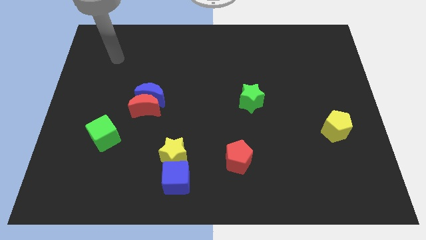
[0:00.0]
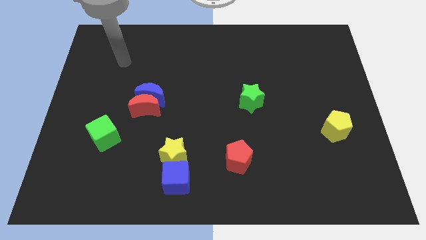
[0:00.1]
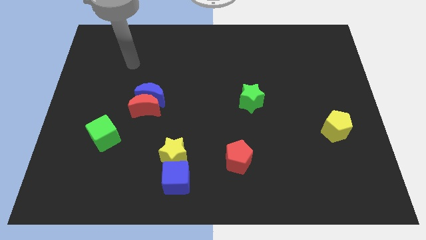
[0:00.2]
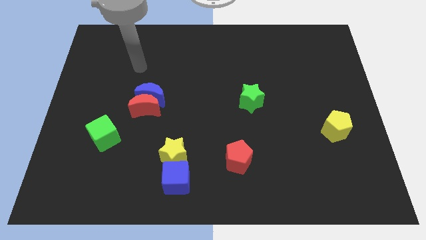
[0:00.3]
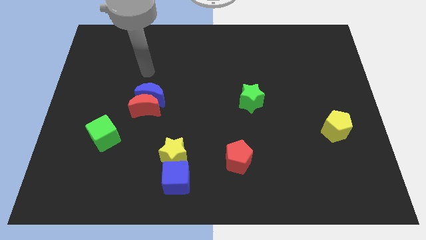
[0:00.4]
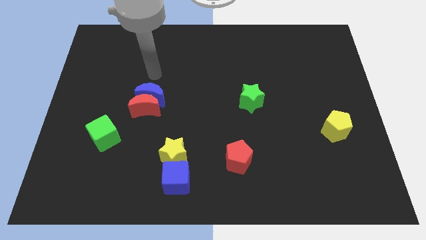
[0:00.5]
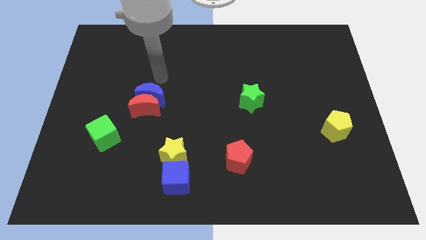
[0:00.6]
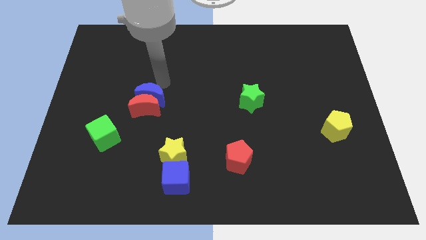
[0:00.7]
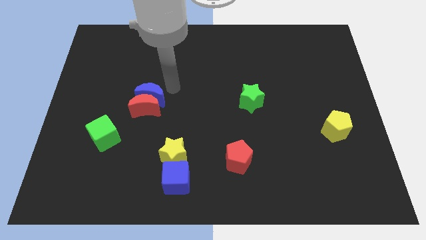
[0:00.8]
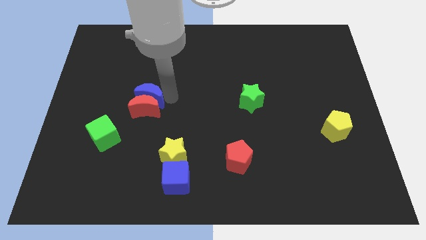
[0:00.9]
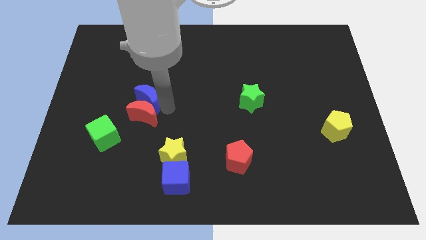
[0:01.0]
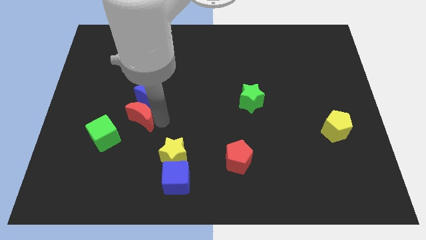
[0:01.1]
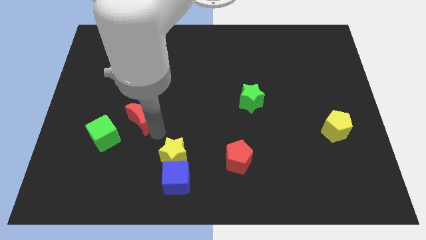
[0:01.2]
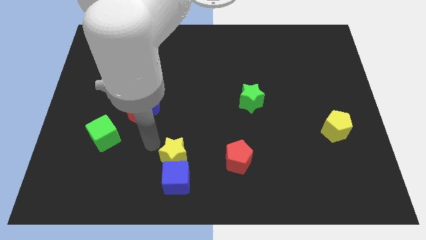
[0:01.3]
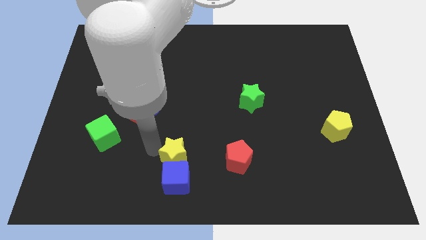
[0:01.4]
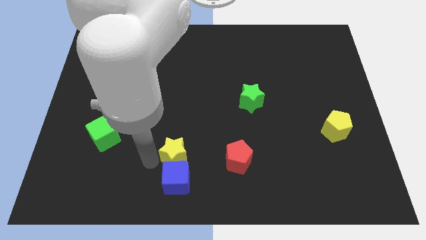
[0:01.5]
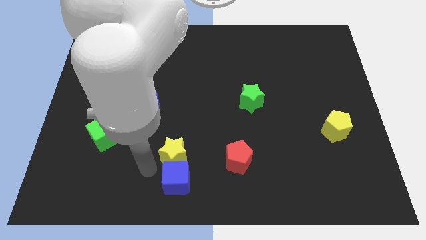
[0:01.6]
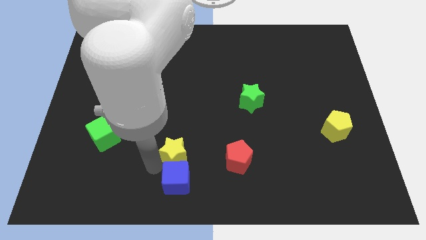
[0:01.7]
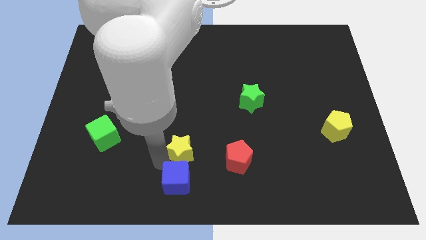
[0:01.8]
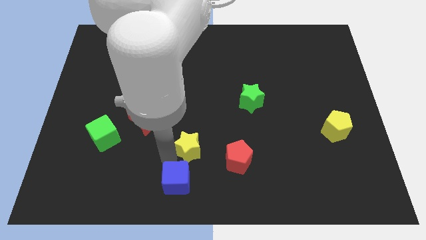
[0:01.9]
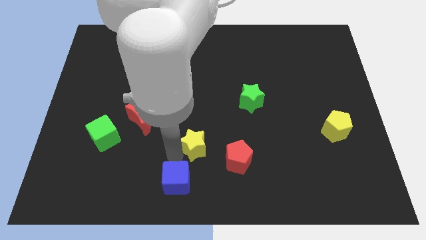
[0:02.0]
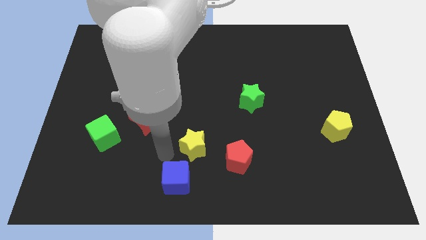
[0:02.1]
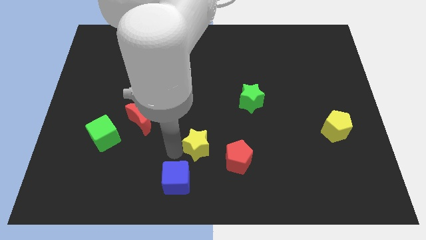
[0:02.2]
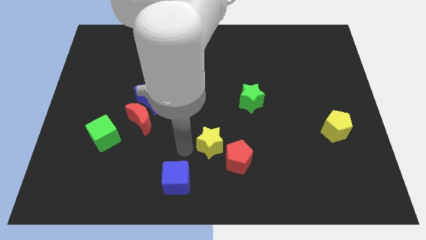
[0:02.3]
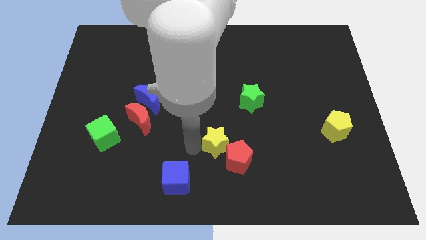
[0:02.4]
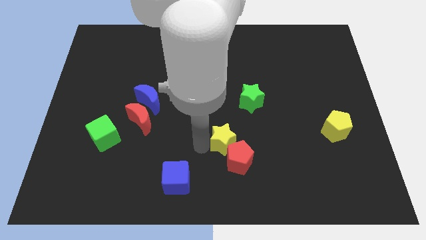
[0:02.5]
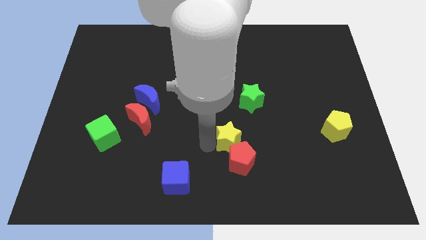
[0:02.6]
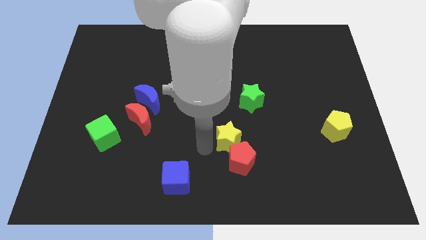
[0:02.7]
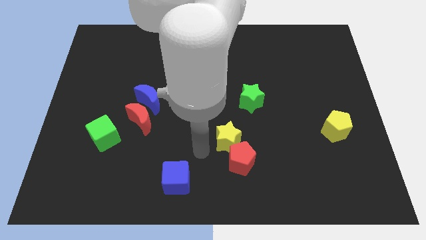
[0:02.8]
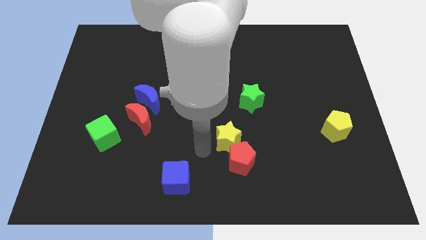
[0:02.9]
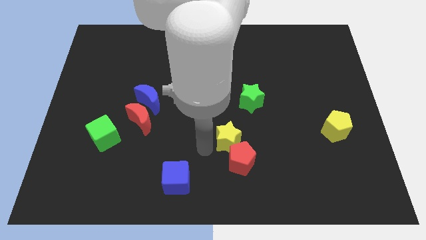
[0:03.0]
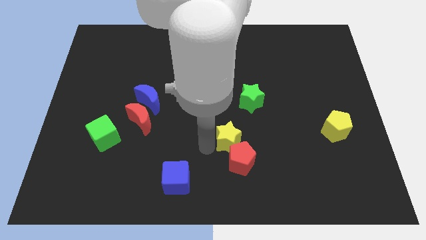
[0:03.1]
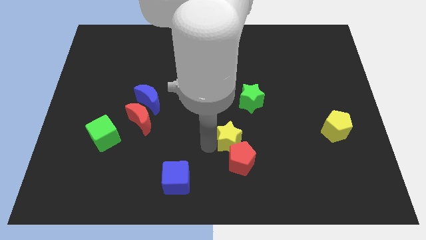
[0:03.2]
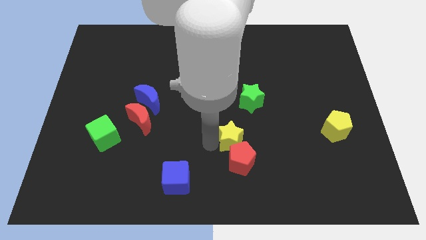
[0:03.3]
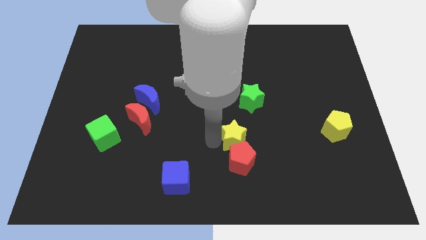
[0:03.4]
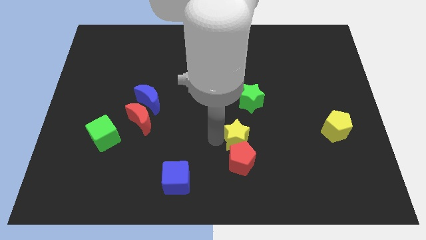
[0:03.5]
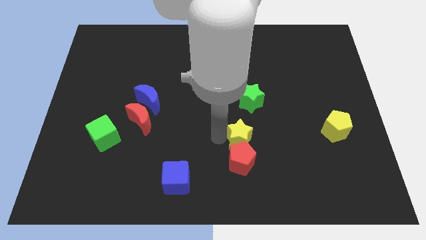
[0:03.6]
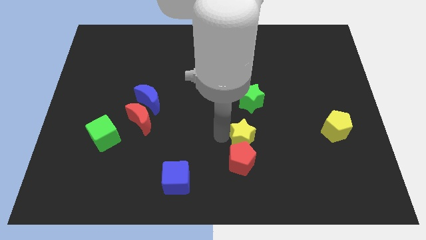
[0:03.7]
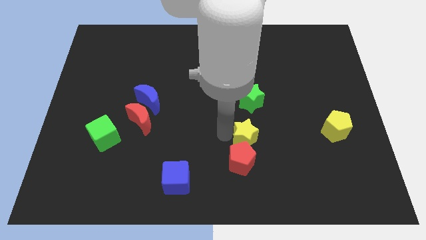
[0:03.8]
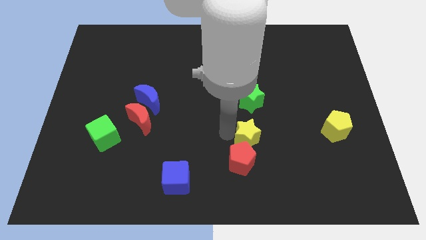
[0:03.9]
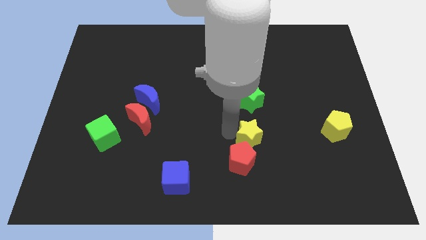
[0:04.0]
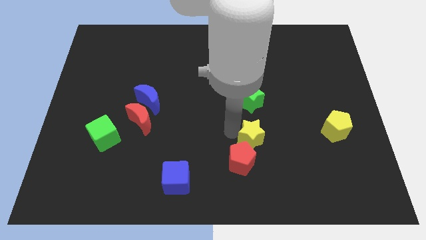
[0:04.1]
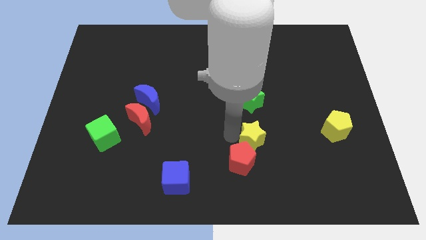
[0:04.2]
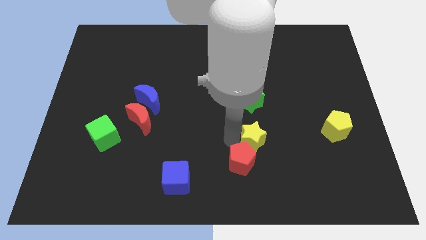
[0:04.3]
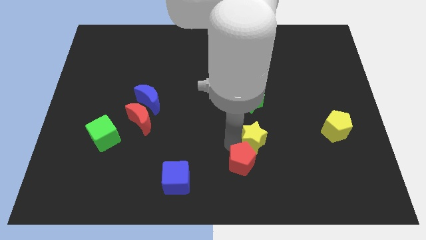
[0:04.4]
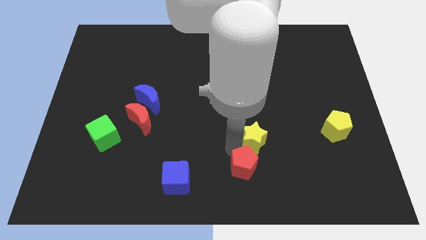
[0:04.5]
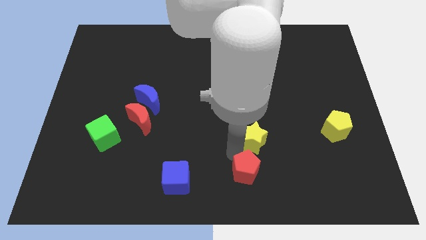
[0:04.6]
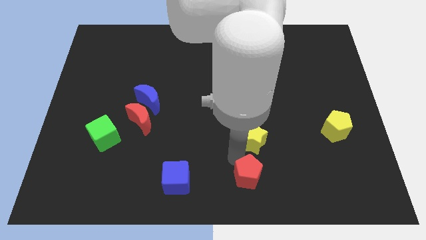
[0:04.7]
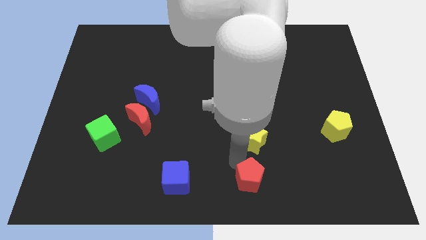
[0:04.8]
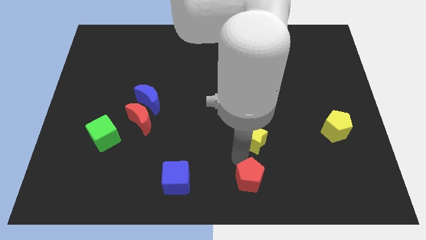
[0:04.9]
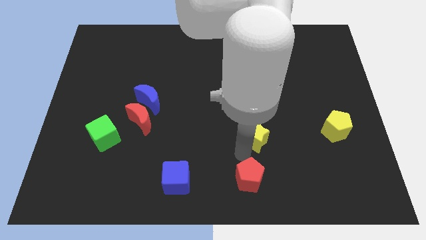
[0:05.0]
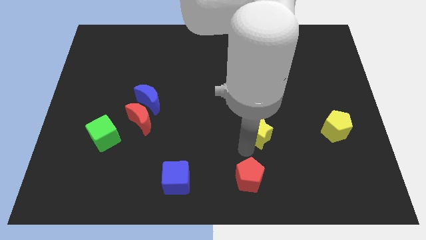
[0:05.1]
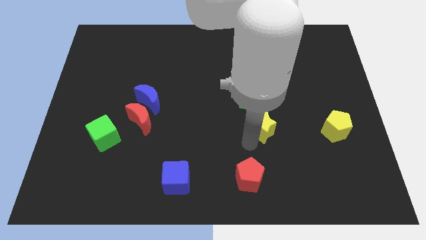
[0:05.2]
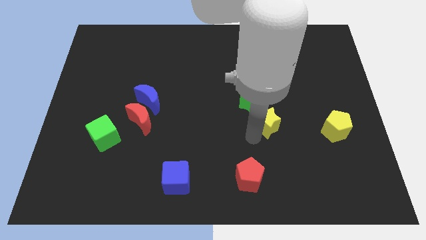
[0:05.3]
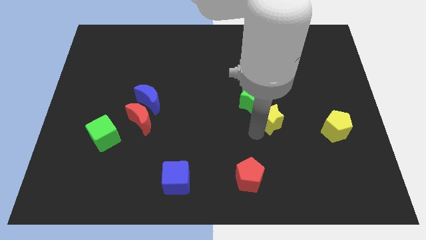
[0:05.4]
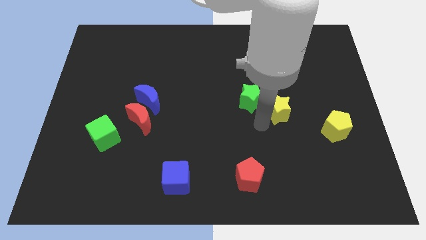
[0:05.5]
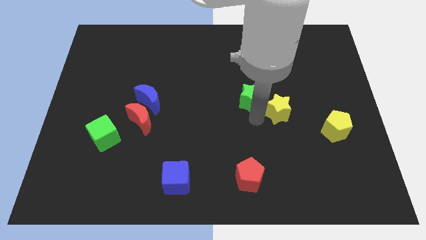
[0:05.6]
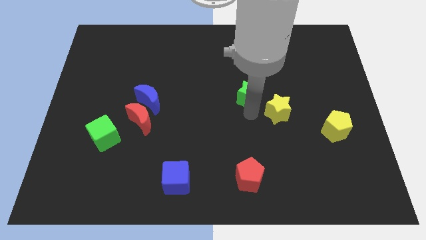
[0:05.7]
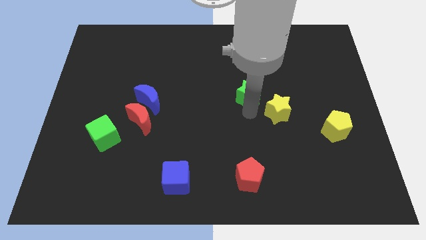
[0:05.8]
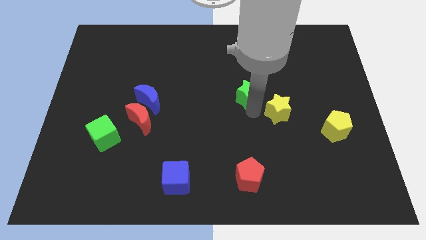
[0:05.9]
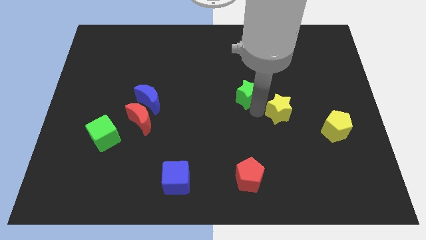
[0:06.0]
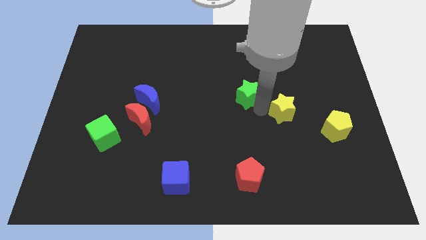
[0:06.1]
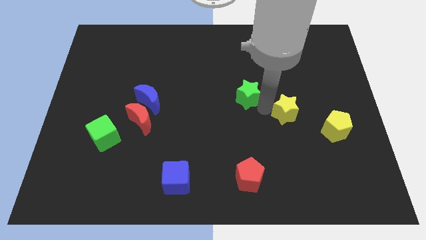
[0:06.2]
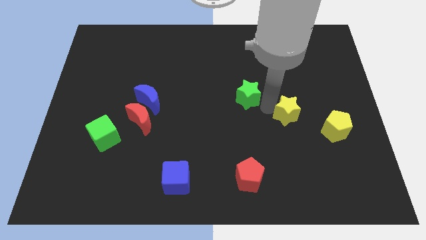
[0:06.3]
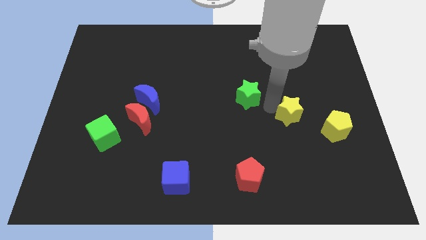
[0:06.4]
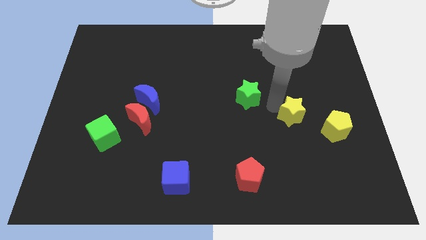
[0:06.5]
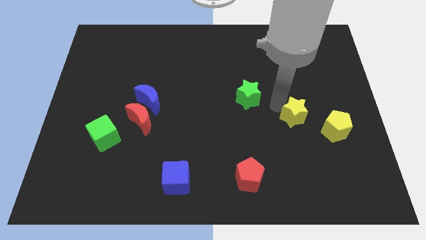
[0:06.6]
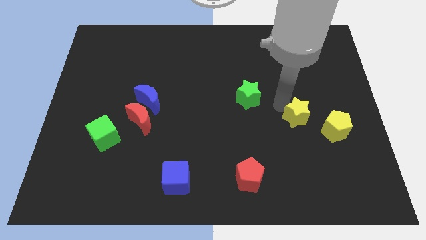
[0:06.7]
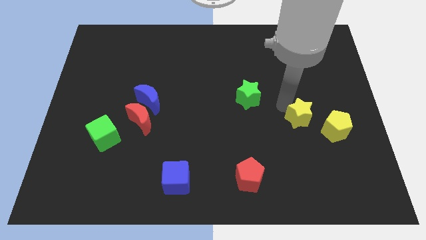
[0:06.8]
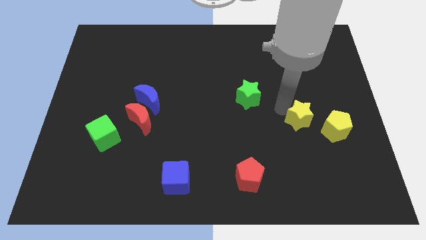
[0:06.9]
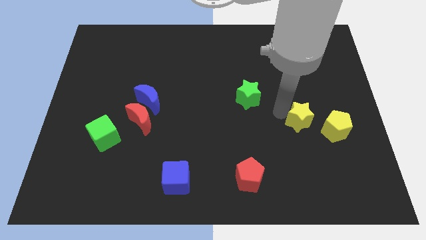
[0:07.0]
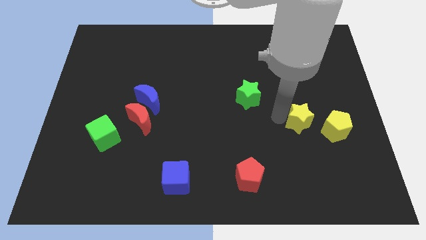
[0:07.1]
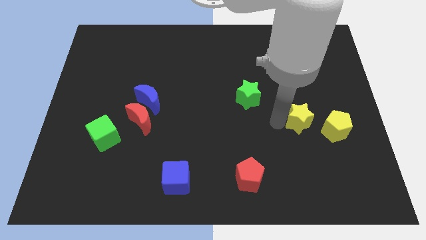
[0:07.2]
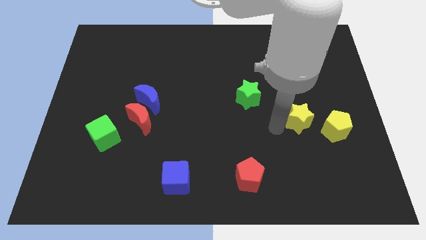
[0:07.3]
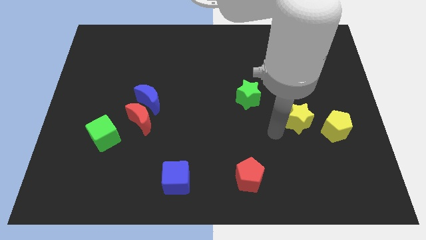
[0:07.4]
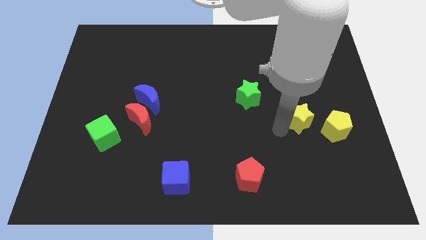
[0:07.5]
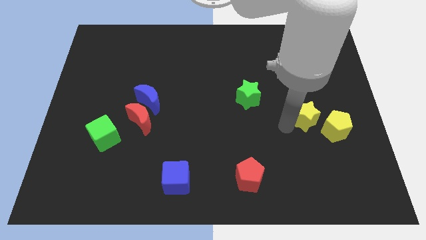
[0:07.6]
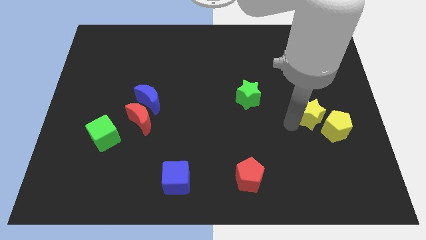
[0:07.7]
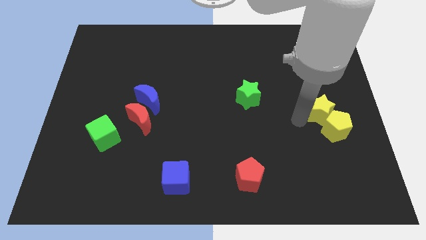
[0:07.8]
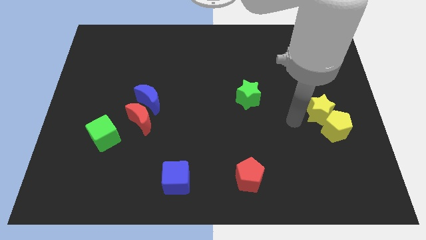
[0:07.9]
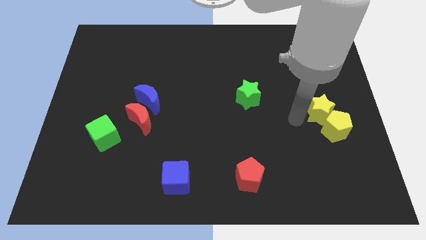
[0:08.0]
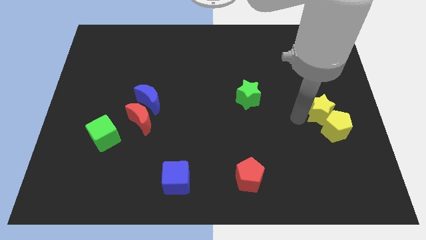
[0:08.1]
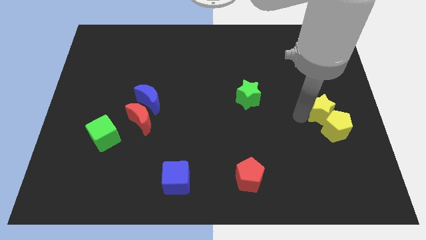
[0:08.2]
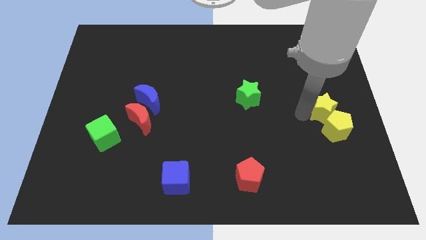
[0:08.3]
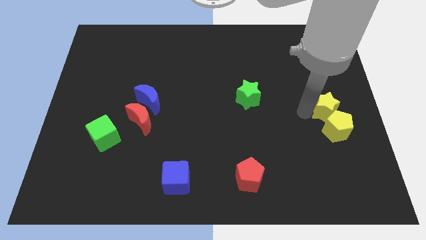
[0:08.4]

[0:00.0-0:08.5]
slide the yellow star to the right side of the board
